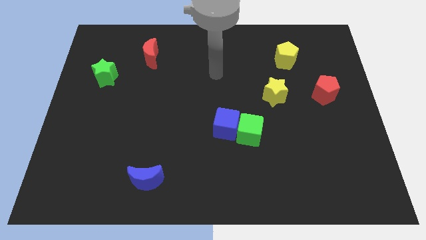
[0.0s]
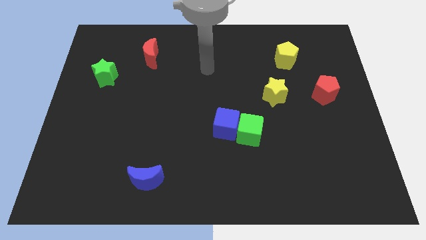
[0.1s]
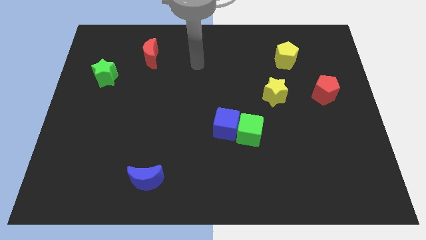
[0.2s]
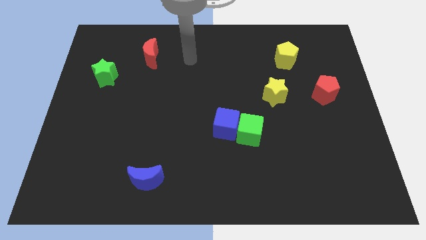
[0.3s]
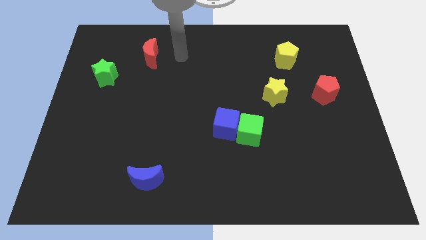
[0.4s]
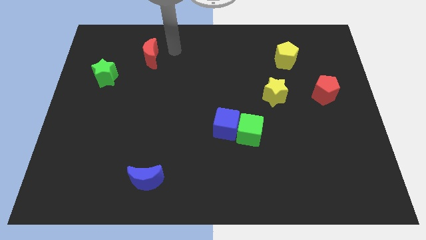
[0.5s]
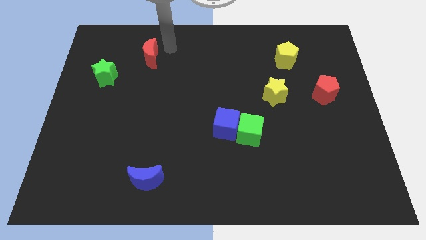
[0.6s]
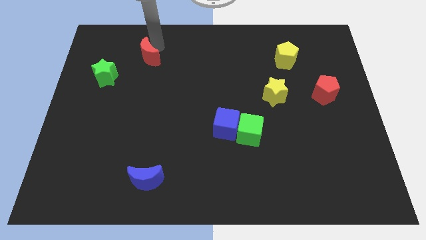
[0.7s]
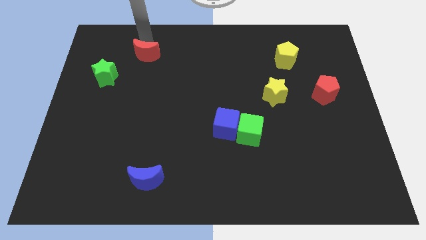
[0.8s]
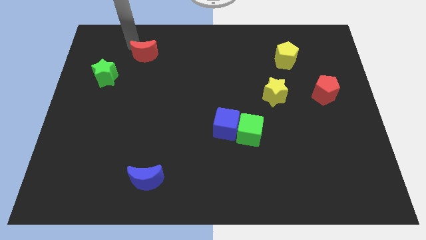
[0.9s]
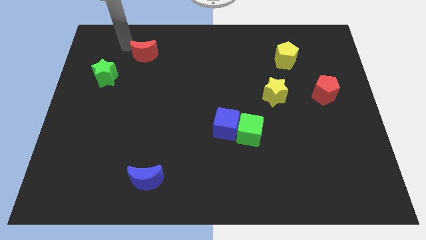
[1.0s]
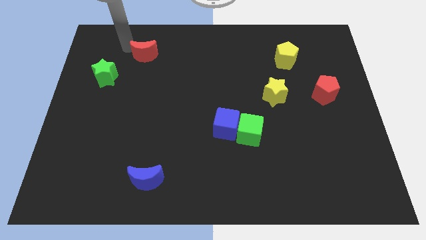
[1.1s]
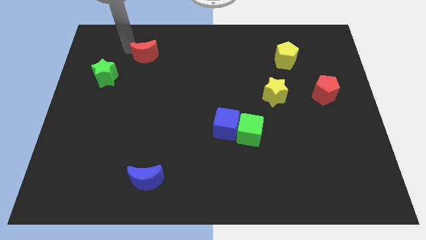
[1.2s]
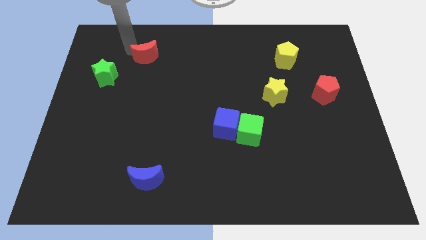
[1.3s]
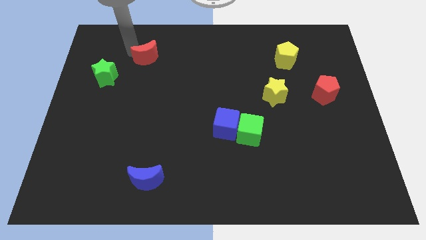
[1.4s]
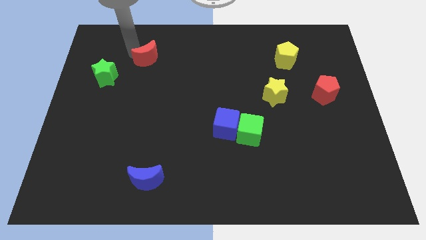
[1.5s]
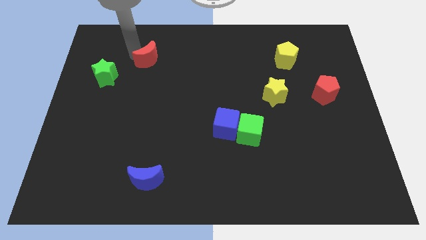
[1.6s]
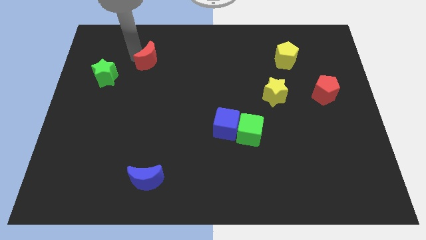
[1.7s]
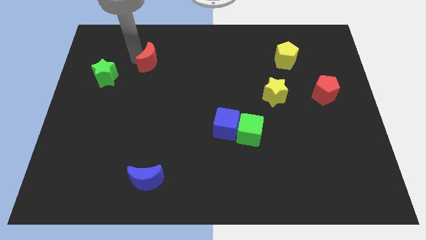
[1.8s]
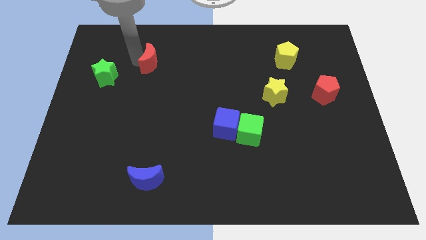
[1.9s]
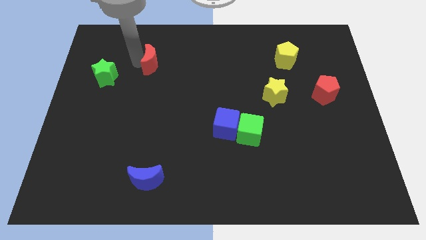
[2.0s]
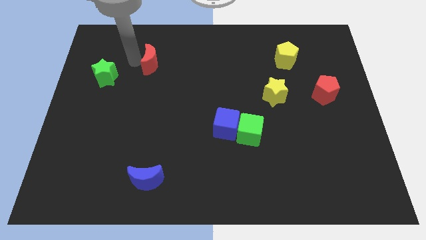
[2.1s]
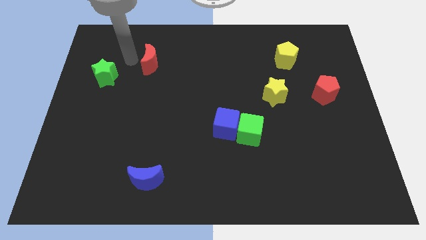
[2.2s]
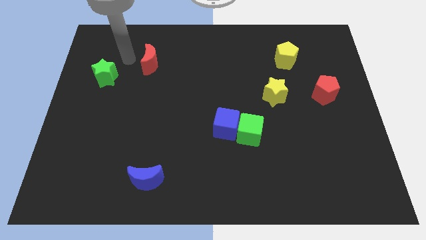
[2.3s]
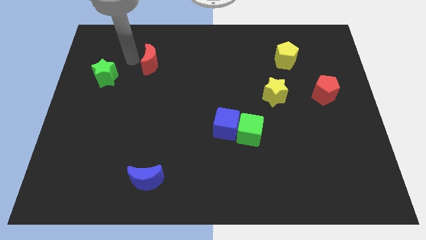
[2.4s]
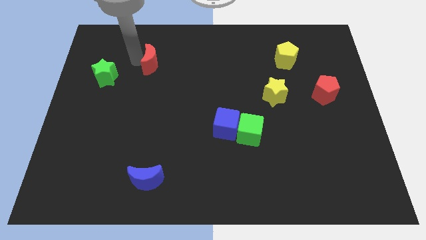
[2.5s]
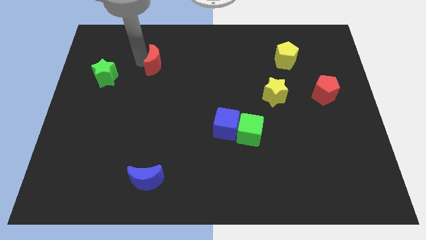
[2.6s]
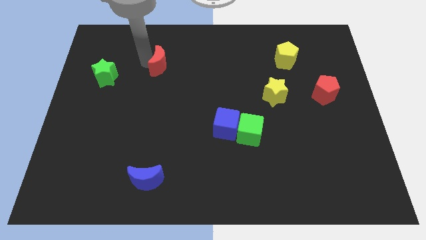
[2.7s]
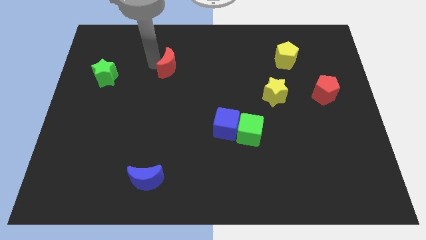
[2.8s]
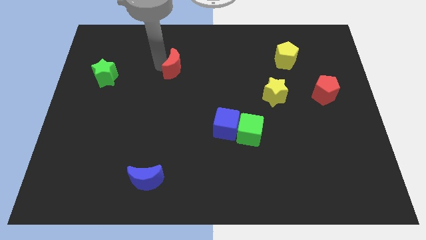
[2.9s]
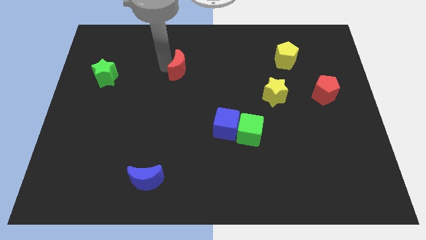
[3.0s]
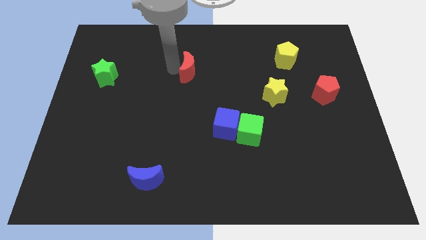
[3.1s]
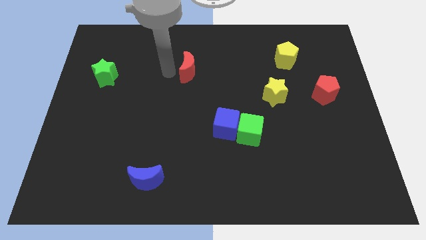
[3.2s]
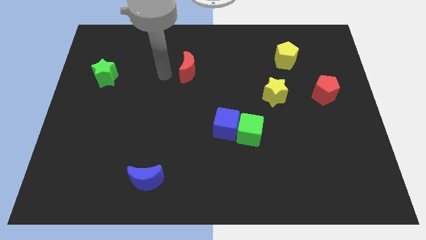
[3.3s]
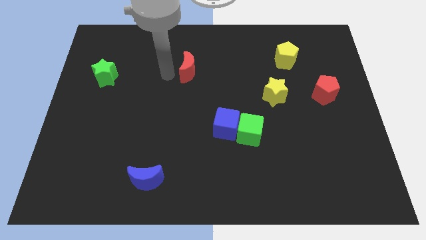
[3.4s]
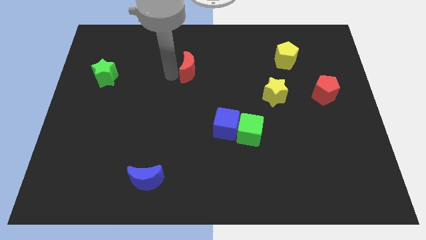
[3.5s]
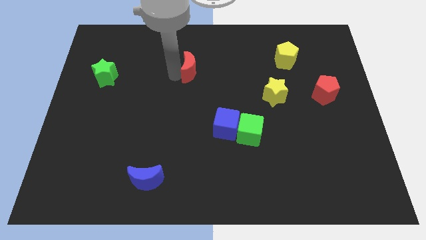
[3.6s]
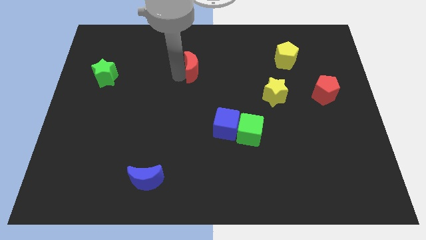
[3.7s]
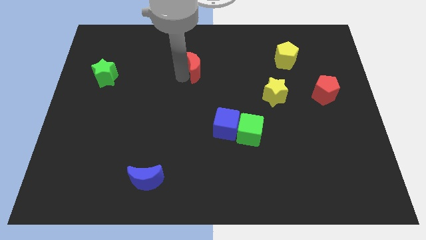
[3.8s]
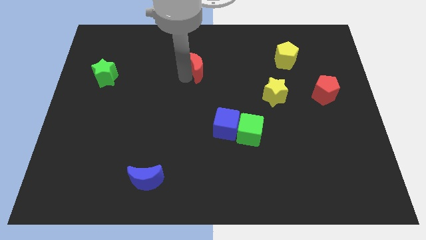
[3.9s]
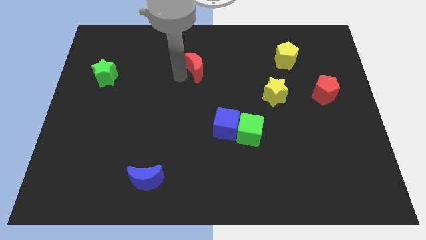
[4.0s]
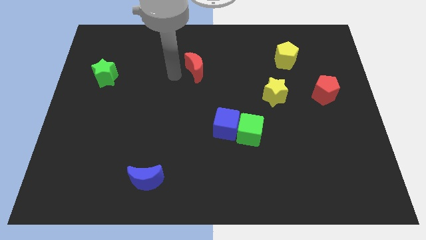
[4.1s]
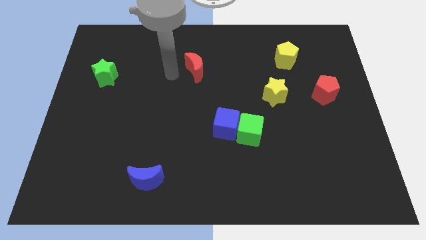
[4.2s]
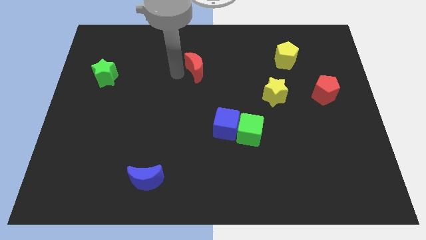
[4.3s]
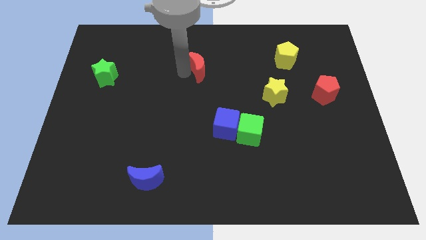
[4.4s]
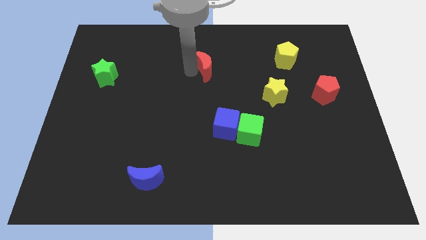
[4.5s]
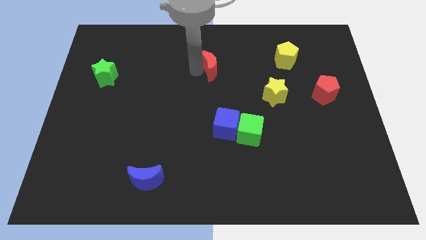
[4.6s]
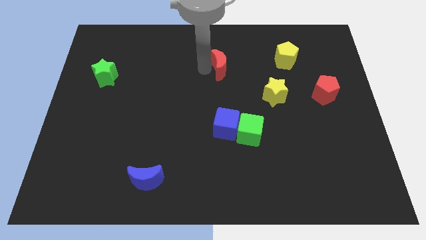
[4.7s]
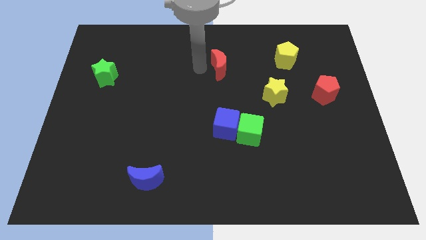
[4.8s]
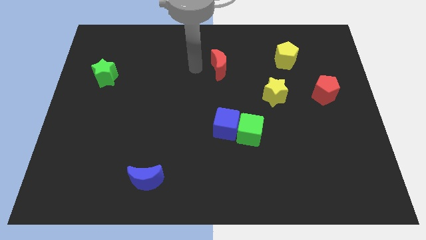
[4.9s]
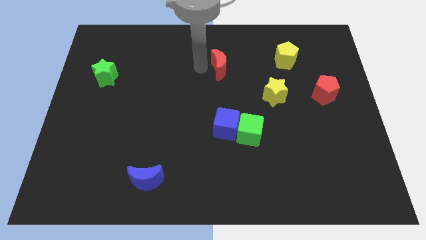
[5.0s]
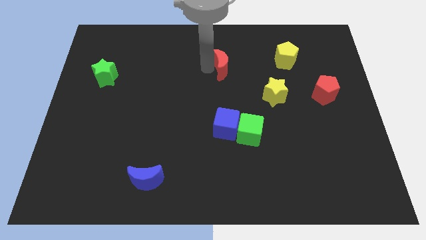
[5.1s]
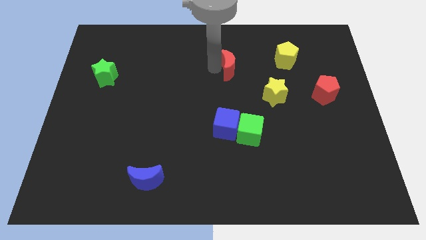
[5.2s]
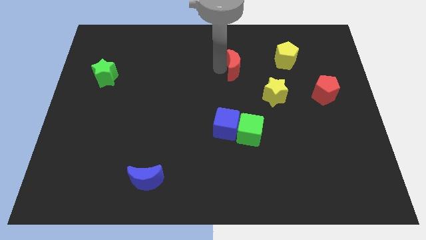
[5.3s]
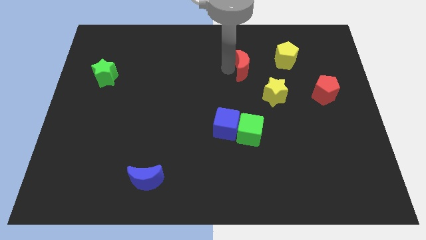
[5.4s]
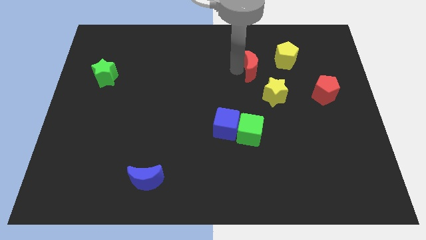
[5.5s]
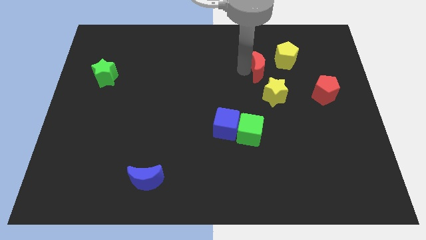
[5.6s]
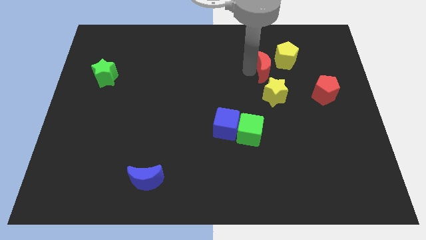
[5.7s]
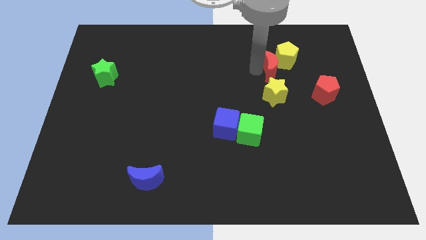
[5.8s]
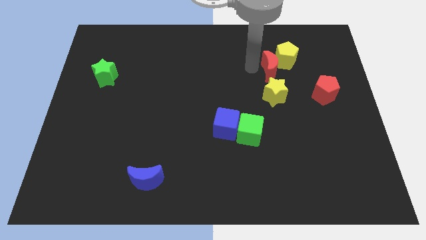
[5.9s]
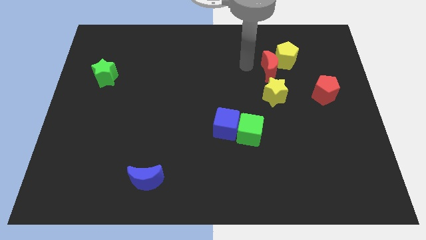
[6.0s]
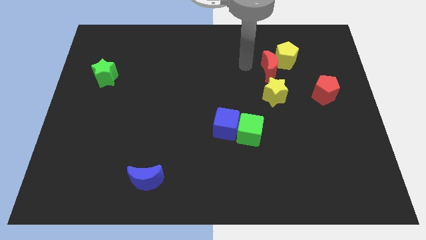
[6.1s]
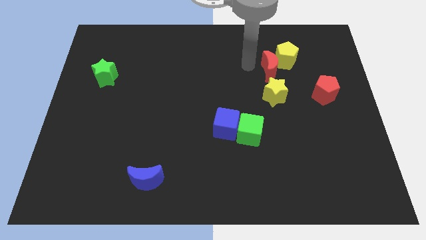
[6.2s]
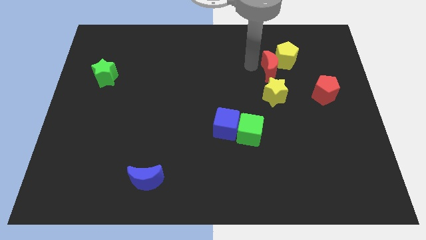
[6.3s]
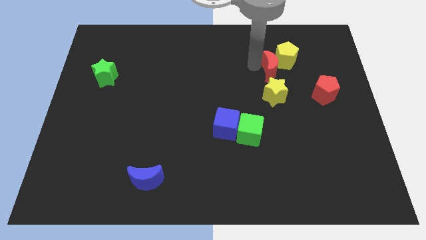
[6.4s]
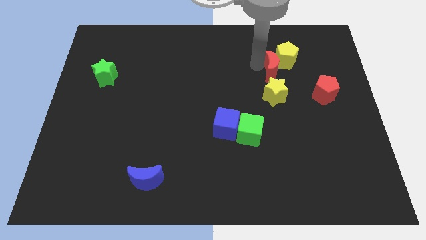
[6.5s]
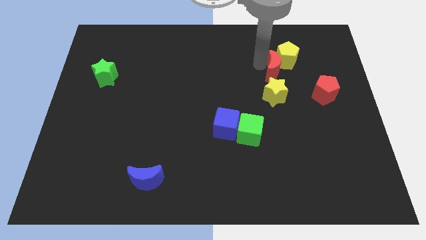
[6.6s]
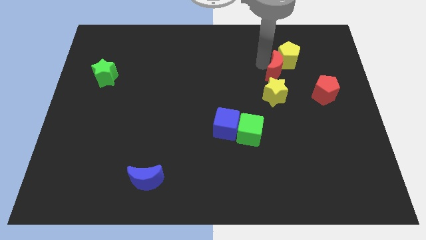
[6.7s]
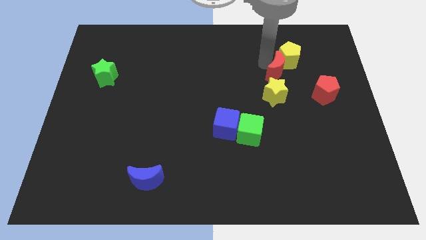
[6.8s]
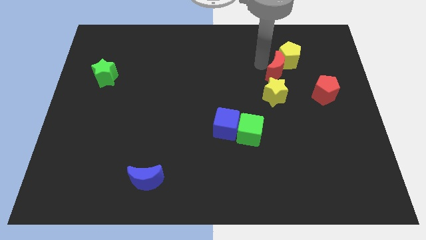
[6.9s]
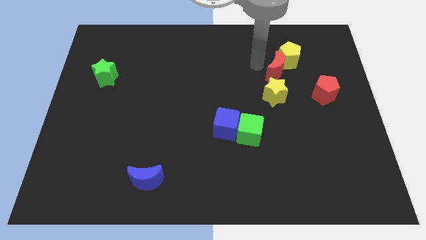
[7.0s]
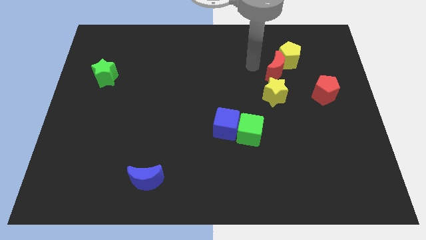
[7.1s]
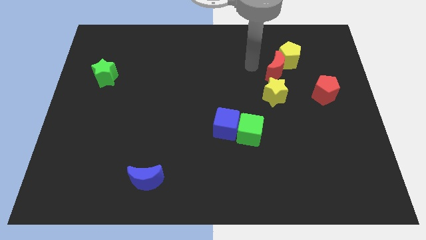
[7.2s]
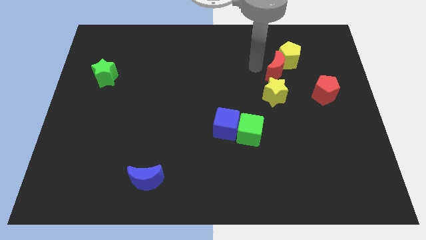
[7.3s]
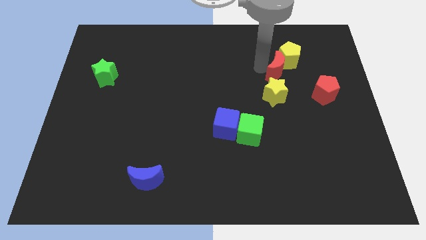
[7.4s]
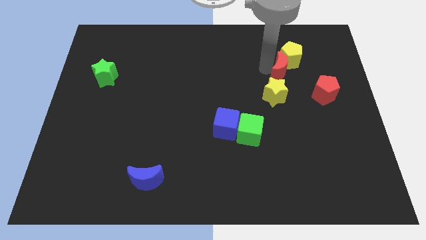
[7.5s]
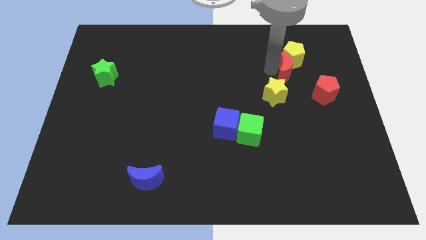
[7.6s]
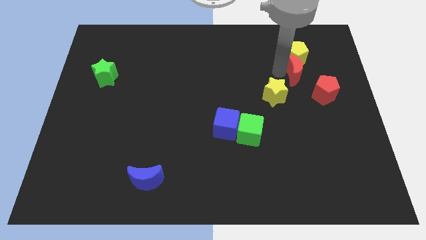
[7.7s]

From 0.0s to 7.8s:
push the red moon diagonally down and to the right of the yellow pentagon

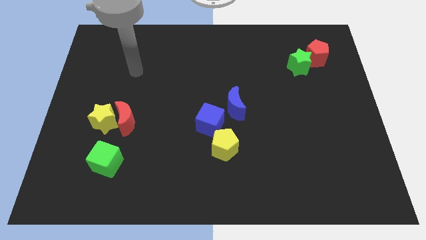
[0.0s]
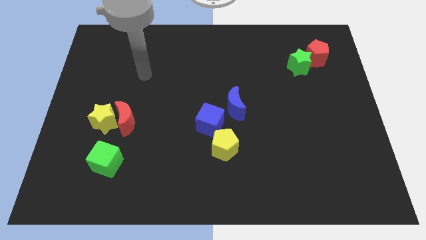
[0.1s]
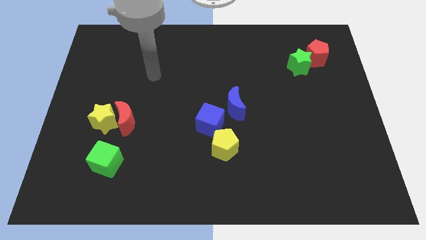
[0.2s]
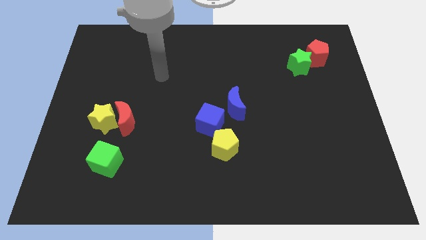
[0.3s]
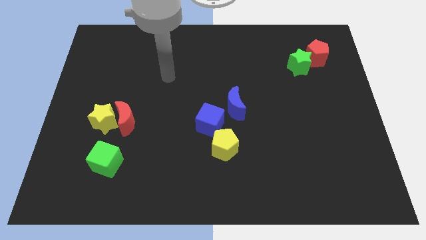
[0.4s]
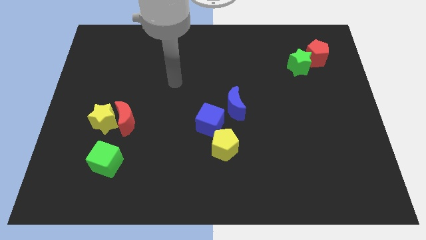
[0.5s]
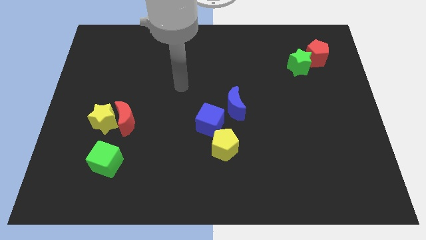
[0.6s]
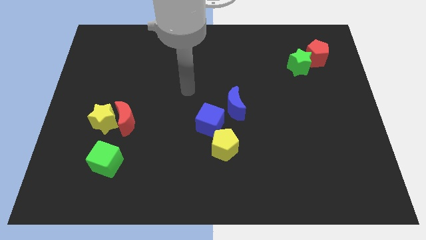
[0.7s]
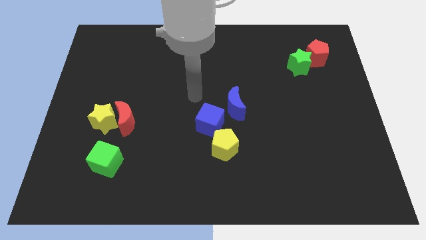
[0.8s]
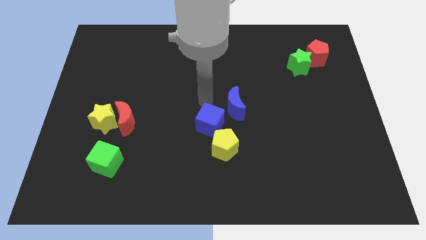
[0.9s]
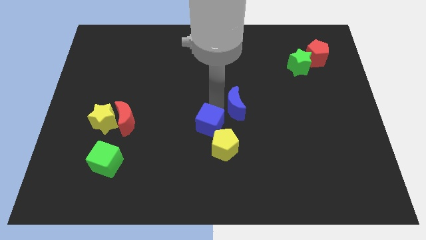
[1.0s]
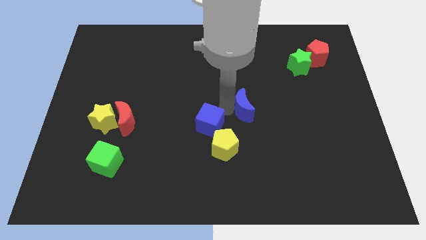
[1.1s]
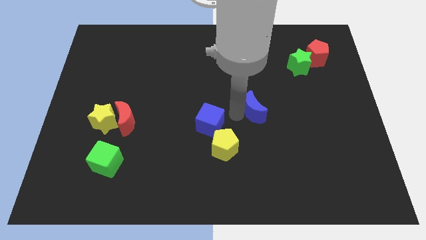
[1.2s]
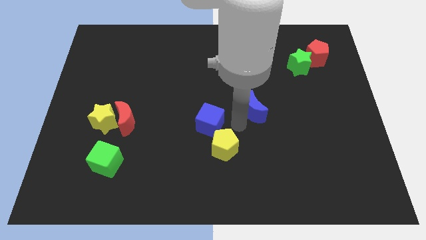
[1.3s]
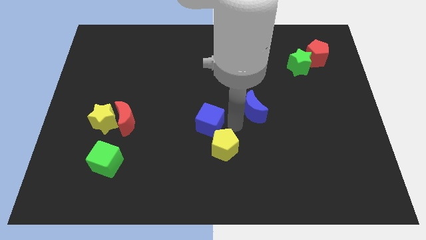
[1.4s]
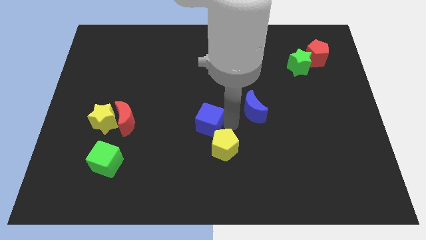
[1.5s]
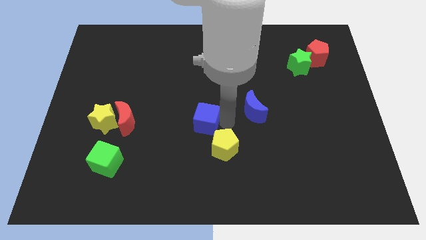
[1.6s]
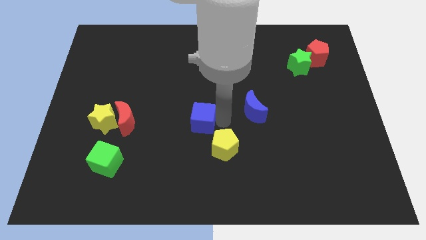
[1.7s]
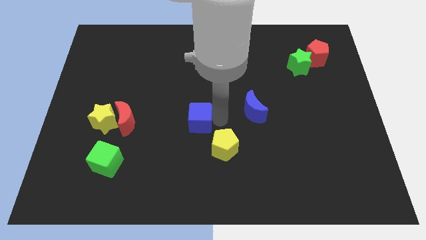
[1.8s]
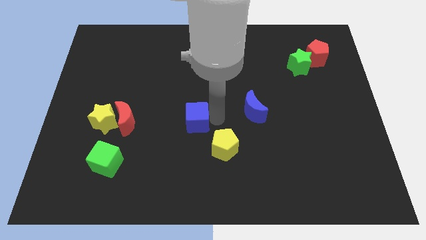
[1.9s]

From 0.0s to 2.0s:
put the blue cube right of the red moon
